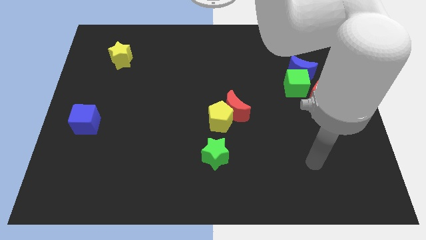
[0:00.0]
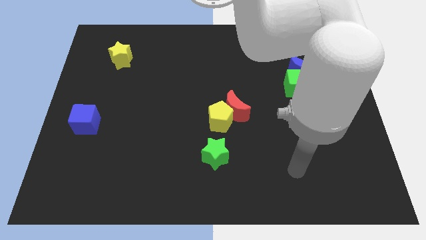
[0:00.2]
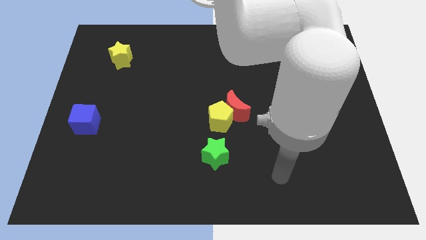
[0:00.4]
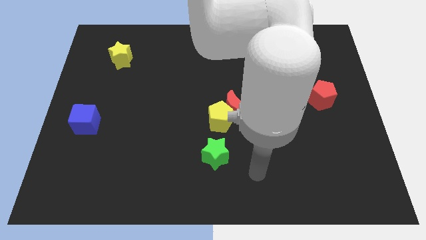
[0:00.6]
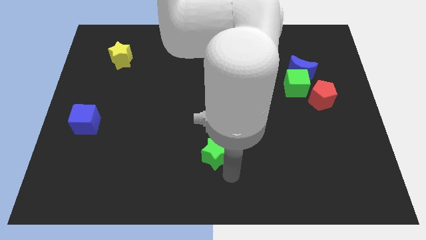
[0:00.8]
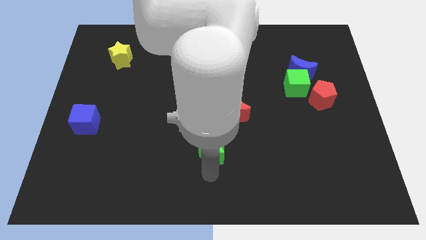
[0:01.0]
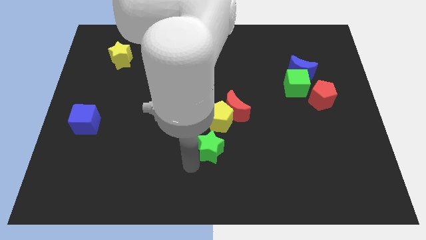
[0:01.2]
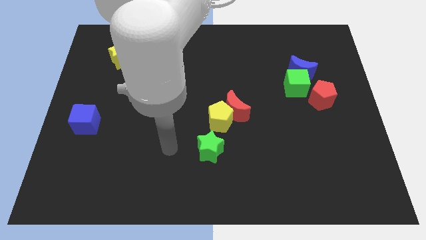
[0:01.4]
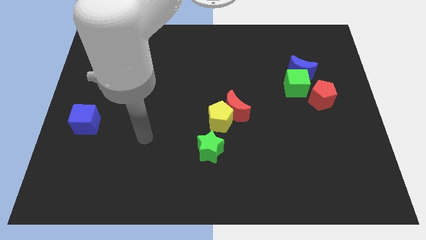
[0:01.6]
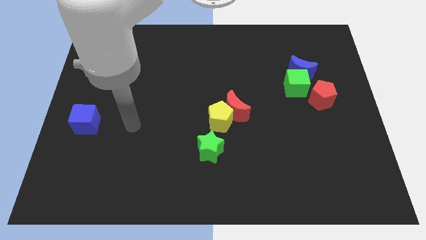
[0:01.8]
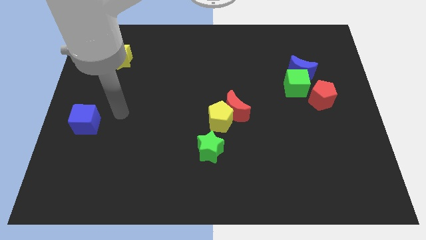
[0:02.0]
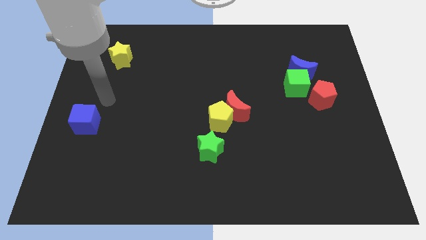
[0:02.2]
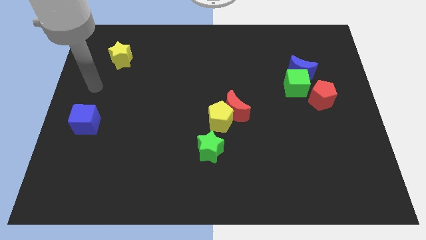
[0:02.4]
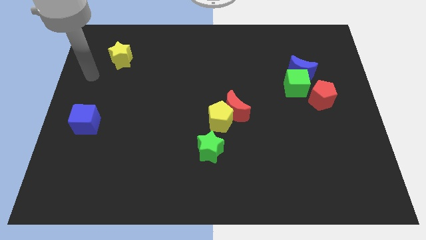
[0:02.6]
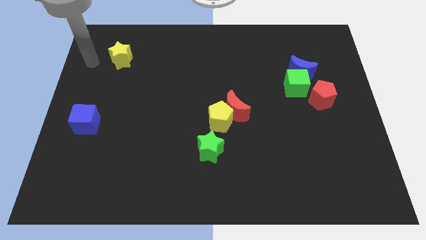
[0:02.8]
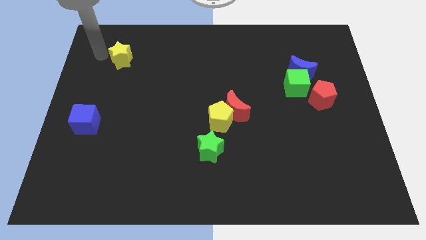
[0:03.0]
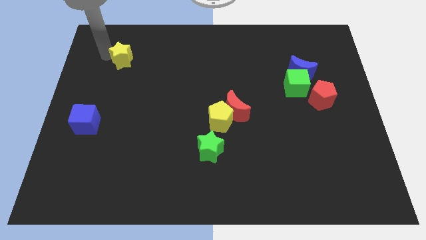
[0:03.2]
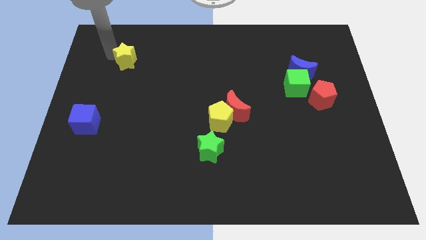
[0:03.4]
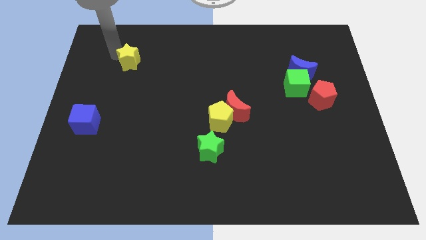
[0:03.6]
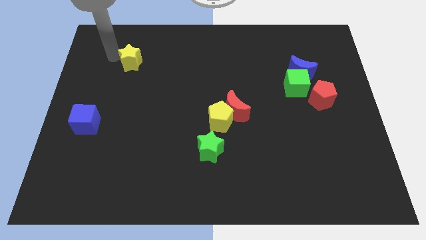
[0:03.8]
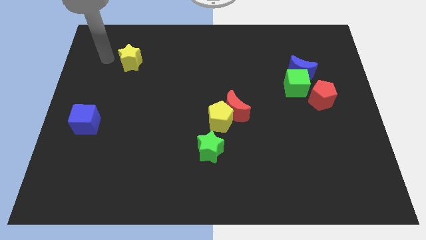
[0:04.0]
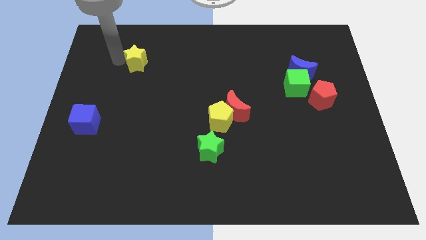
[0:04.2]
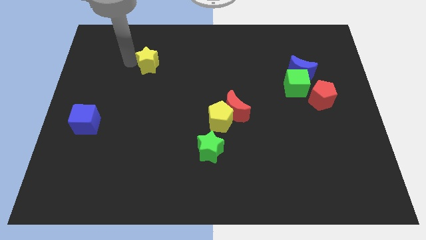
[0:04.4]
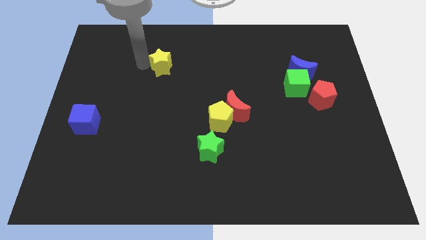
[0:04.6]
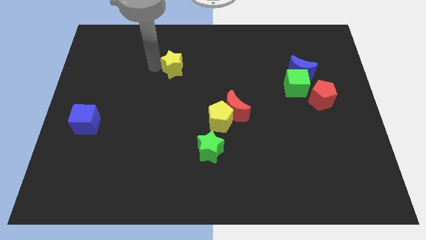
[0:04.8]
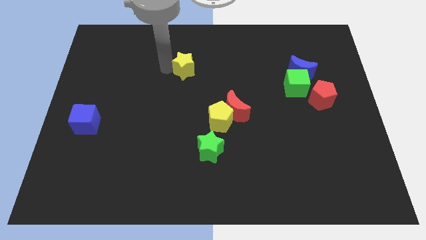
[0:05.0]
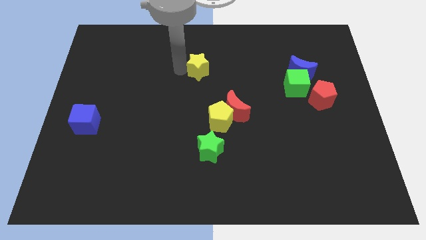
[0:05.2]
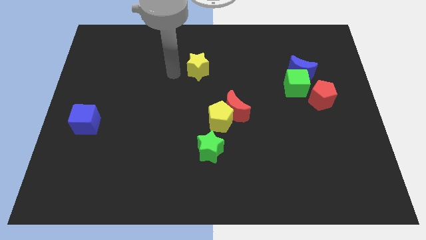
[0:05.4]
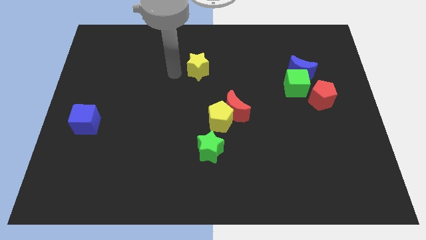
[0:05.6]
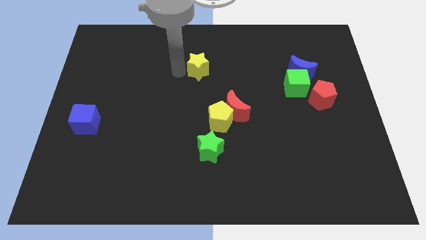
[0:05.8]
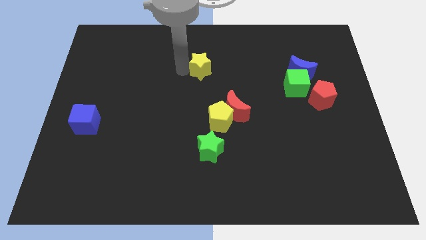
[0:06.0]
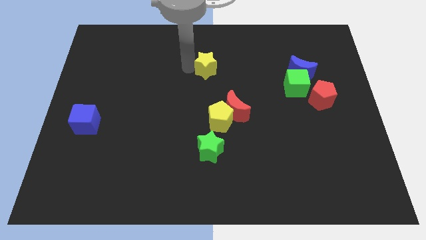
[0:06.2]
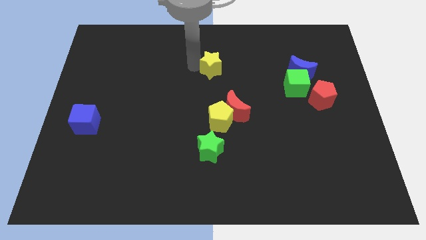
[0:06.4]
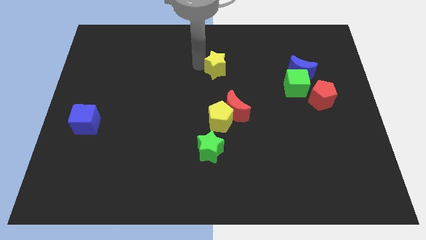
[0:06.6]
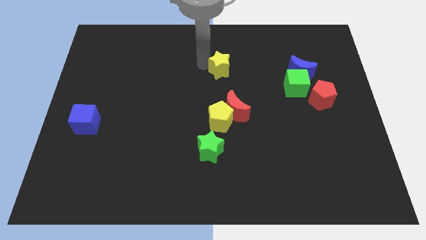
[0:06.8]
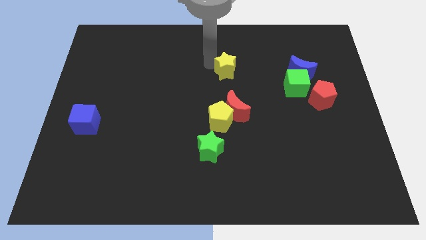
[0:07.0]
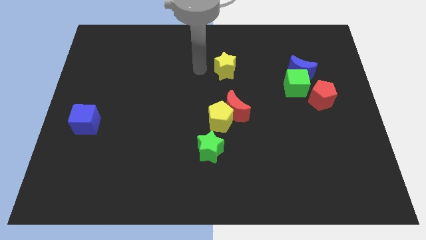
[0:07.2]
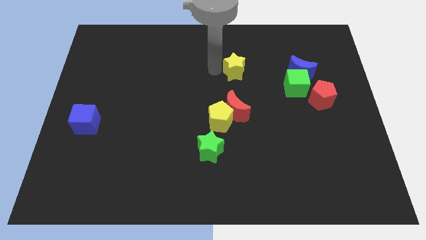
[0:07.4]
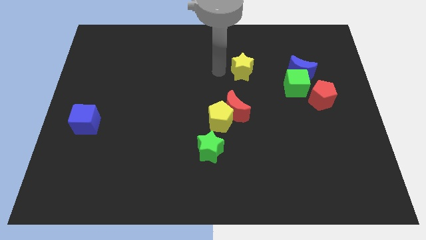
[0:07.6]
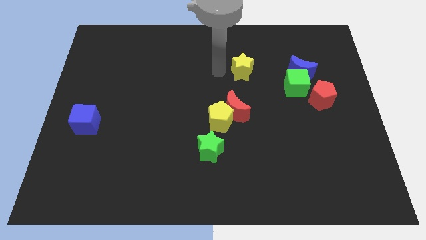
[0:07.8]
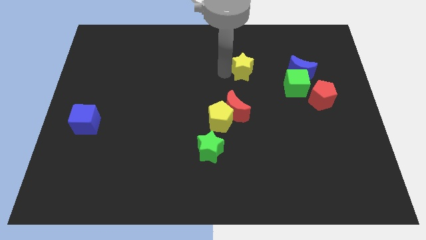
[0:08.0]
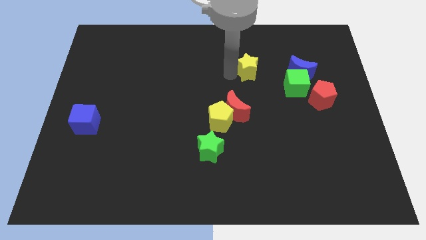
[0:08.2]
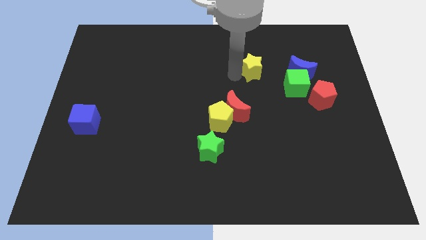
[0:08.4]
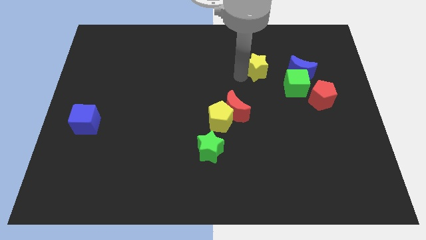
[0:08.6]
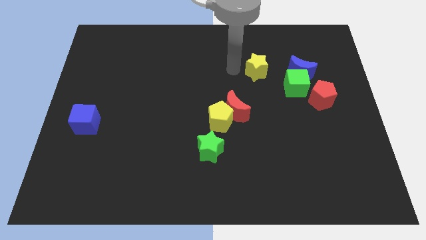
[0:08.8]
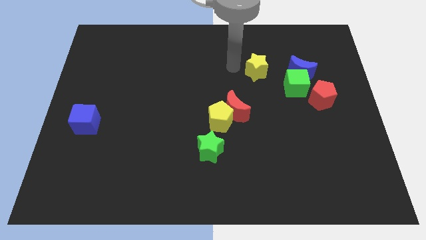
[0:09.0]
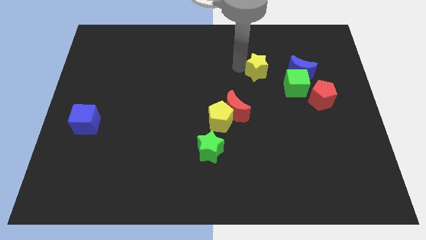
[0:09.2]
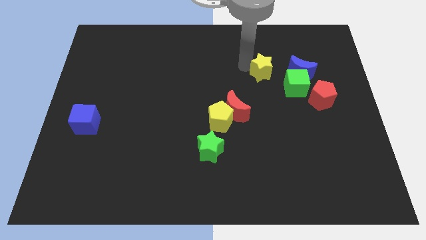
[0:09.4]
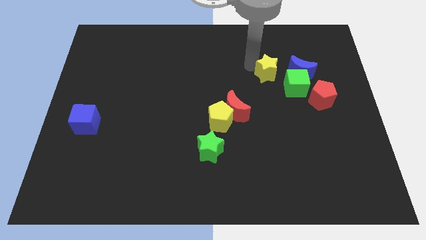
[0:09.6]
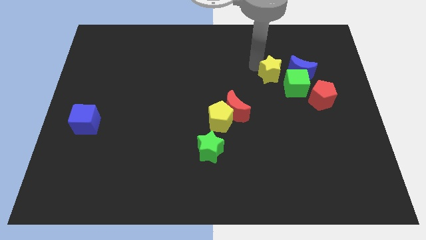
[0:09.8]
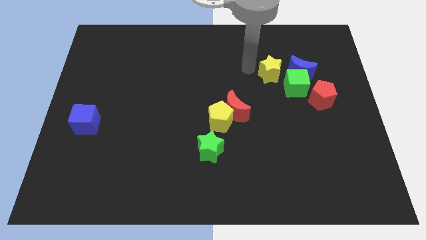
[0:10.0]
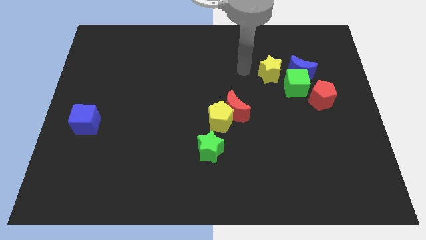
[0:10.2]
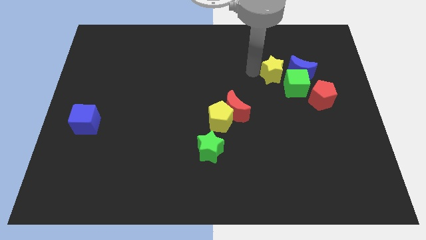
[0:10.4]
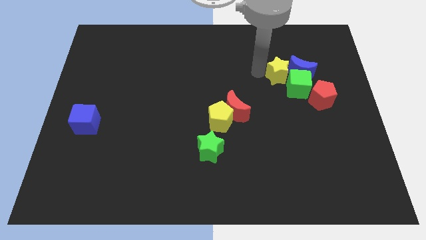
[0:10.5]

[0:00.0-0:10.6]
push the yellow star to the top left side of the red pentagon

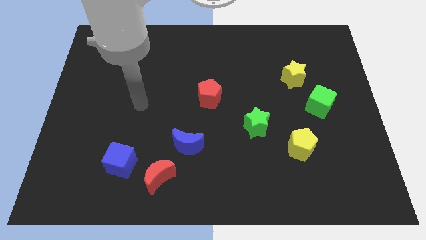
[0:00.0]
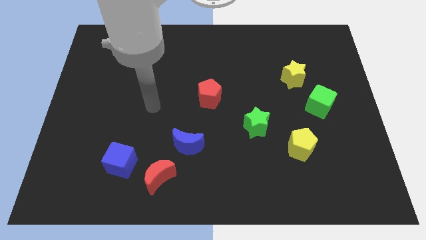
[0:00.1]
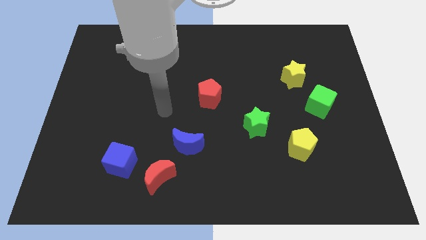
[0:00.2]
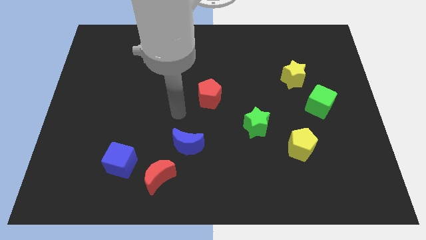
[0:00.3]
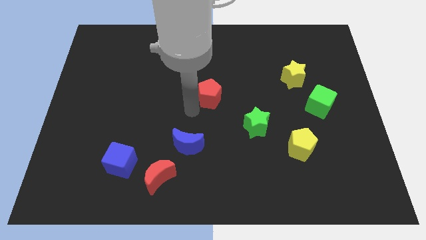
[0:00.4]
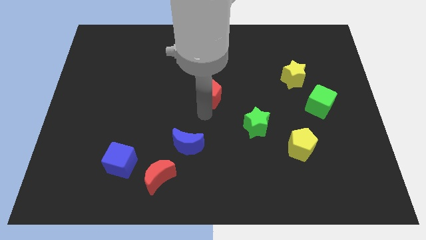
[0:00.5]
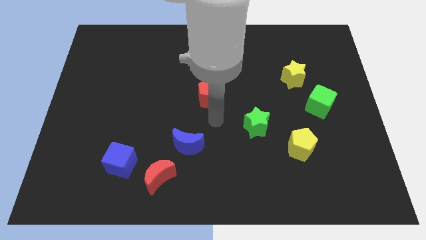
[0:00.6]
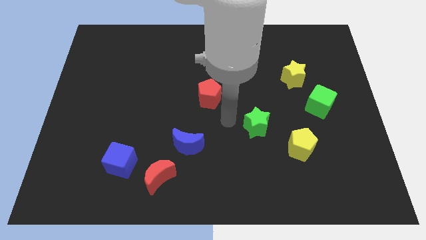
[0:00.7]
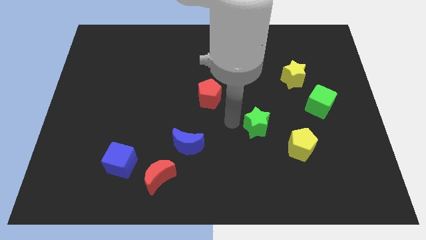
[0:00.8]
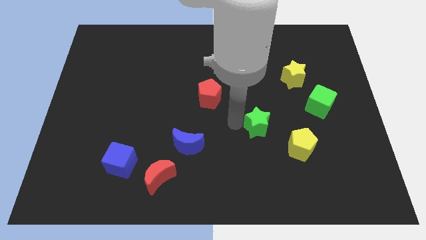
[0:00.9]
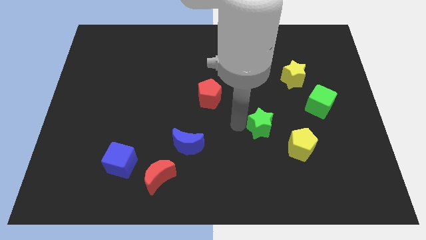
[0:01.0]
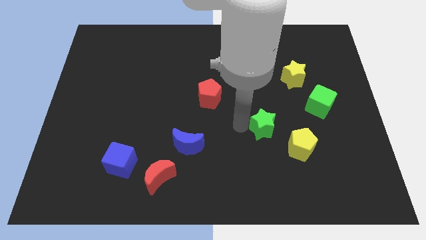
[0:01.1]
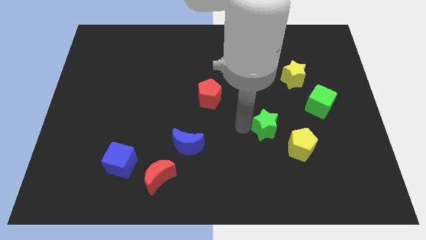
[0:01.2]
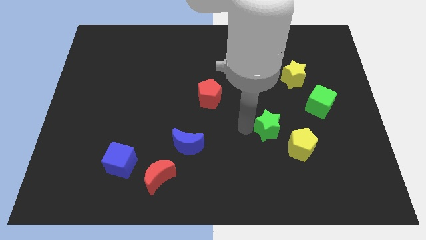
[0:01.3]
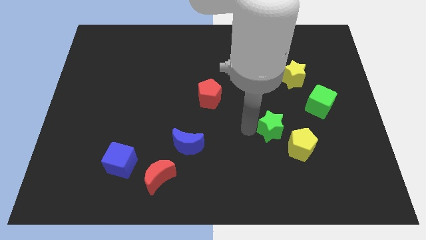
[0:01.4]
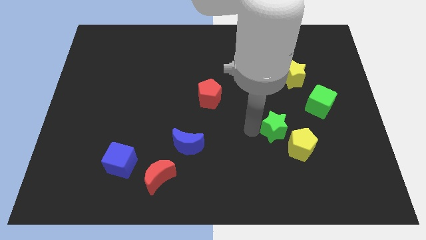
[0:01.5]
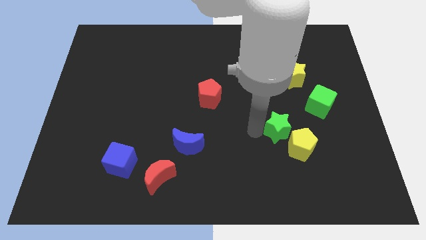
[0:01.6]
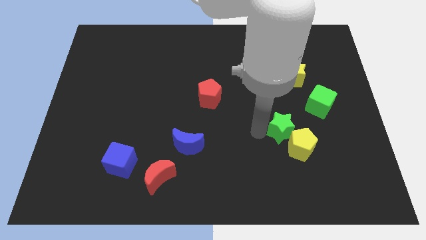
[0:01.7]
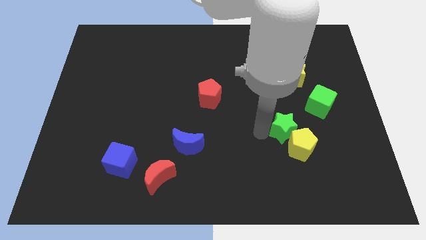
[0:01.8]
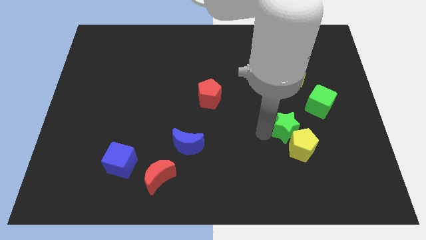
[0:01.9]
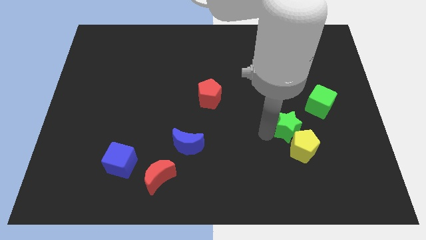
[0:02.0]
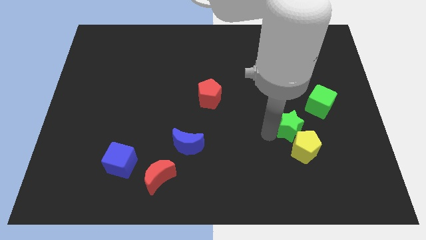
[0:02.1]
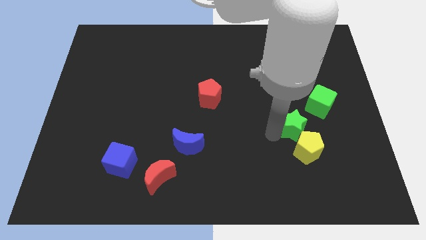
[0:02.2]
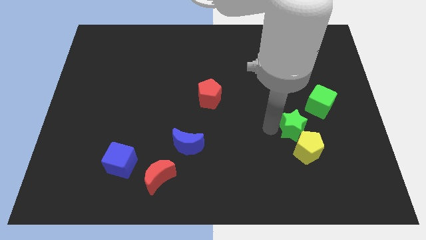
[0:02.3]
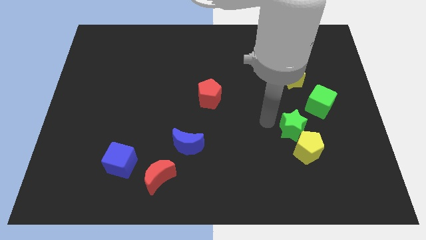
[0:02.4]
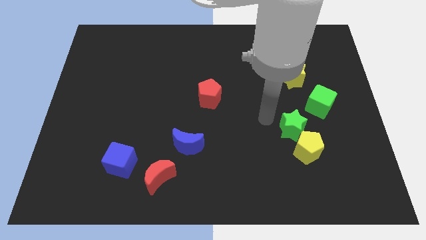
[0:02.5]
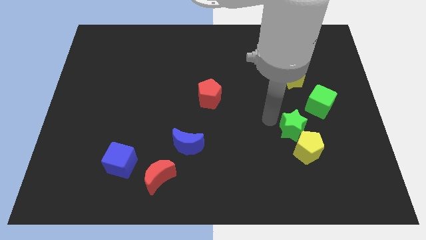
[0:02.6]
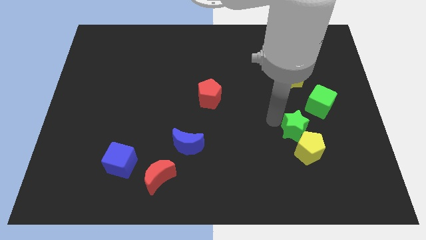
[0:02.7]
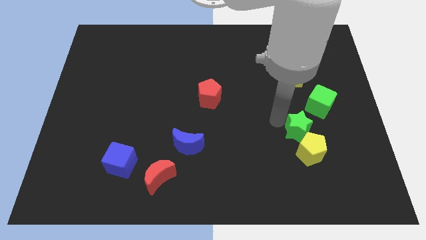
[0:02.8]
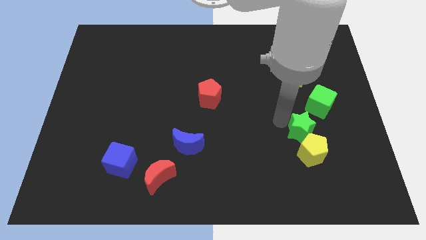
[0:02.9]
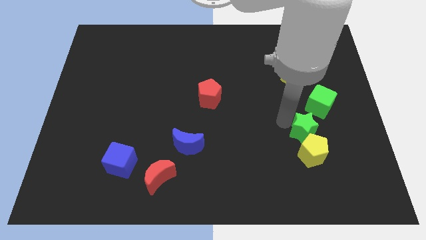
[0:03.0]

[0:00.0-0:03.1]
put the green star below the green cube
